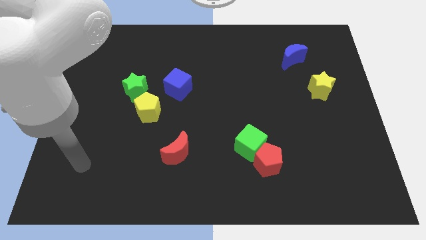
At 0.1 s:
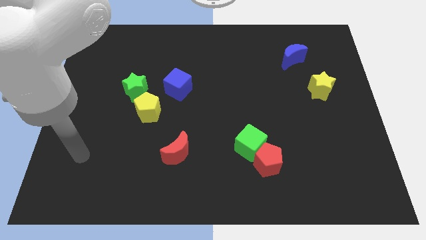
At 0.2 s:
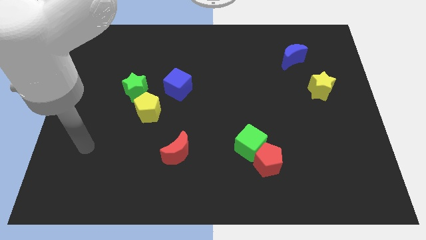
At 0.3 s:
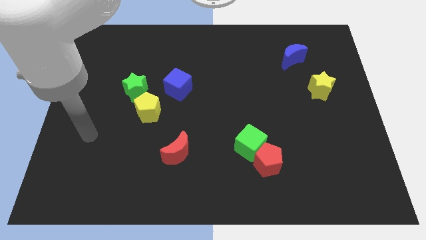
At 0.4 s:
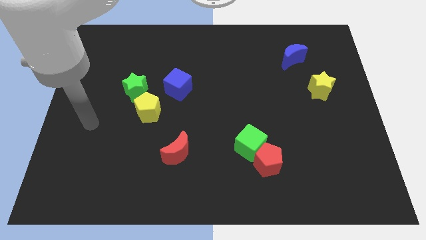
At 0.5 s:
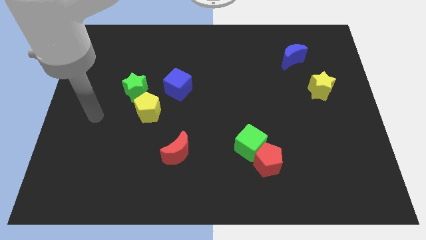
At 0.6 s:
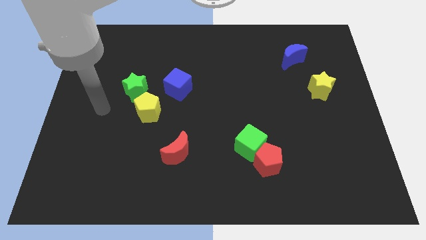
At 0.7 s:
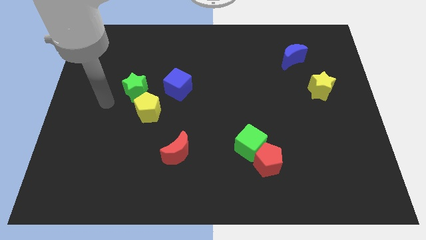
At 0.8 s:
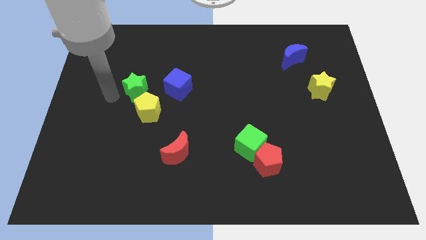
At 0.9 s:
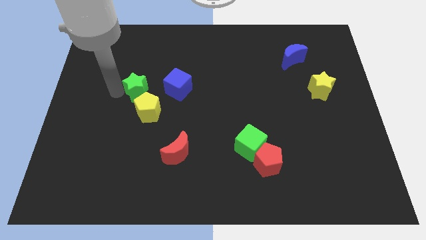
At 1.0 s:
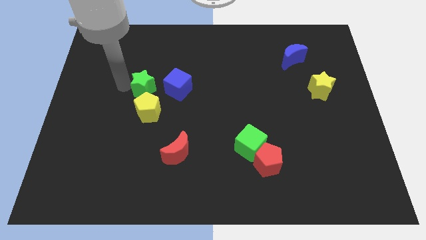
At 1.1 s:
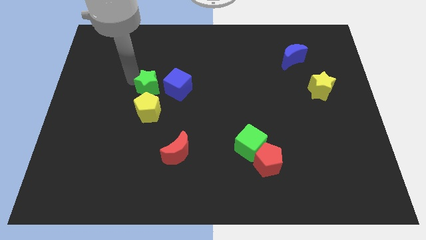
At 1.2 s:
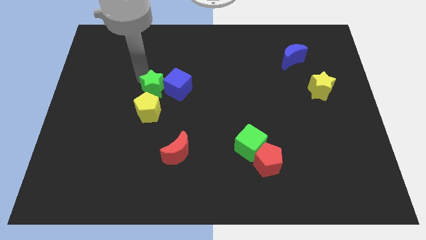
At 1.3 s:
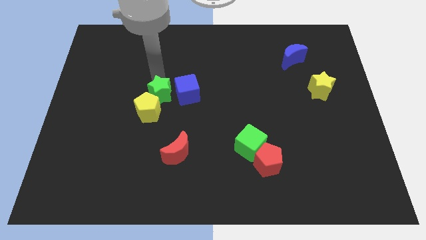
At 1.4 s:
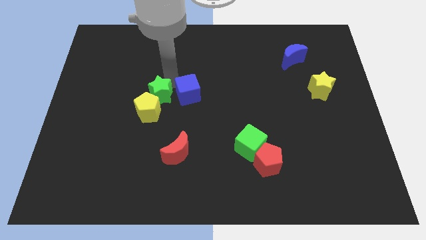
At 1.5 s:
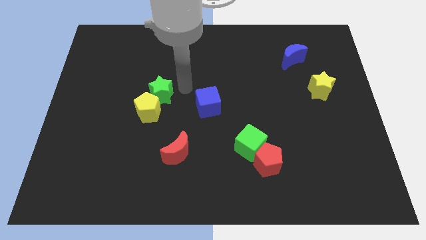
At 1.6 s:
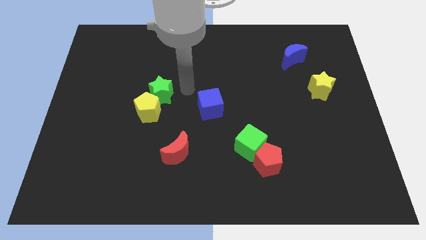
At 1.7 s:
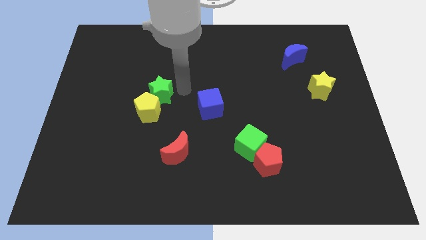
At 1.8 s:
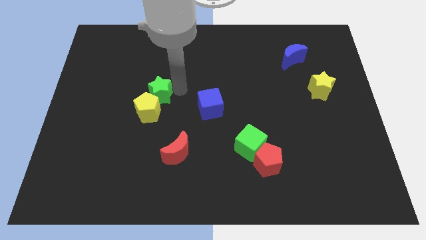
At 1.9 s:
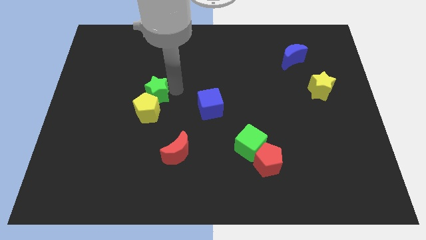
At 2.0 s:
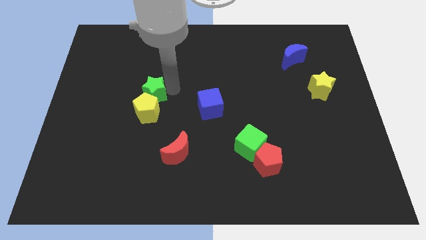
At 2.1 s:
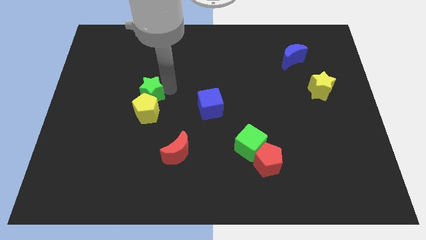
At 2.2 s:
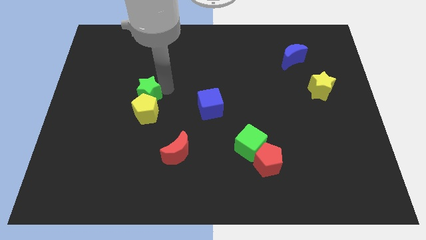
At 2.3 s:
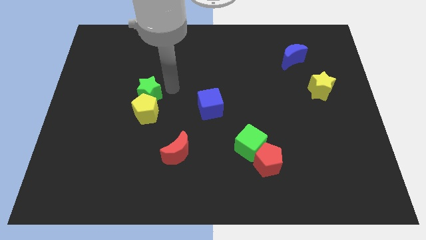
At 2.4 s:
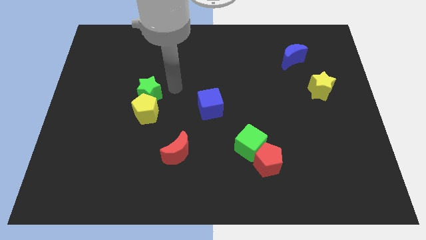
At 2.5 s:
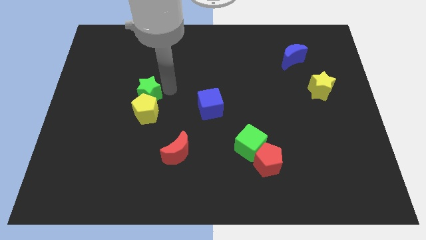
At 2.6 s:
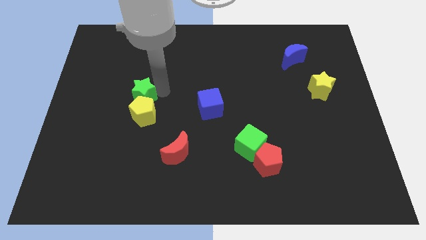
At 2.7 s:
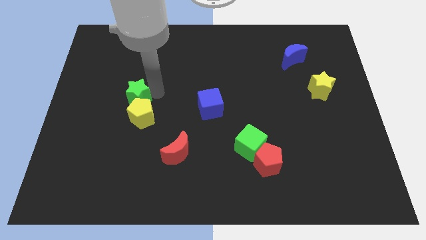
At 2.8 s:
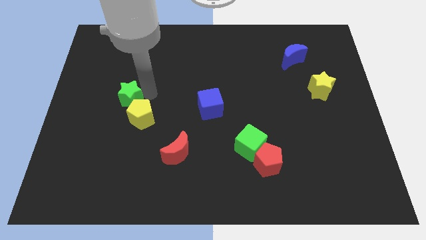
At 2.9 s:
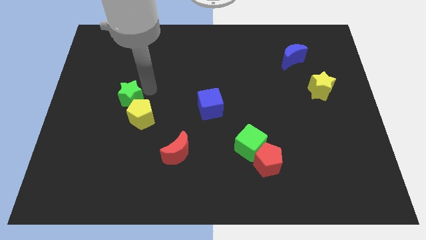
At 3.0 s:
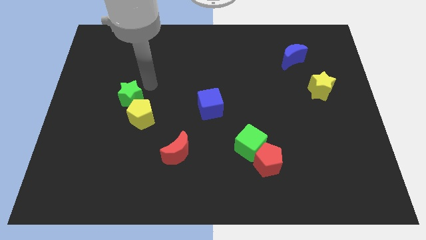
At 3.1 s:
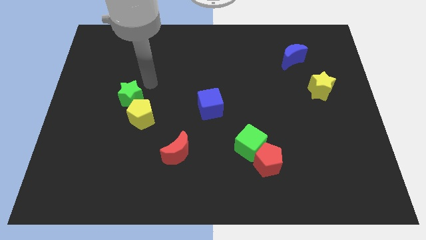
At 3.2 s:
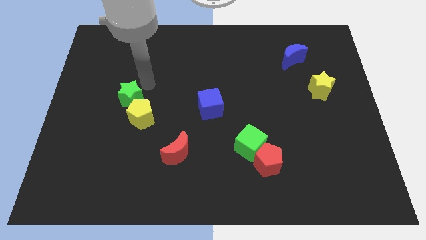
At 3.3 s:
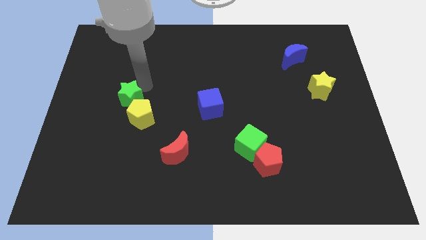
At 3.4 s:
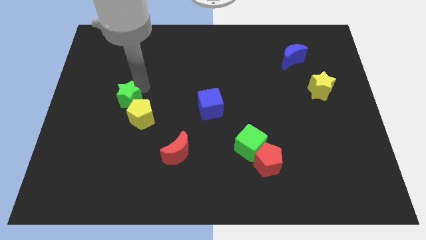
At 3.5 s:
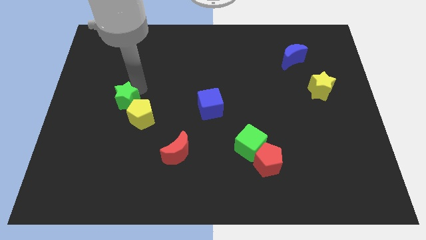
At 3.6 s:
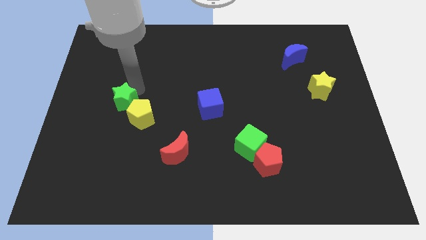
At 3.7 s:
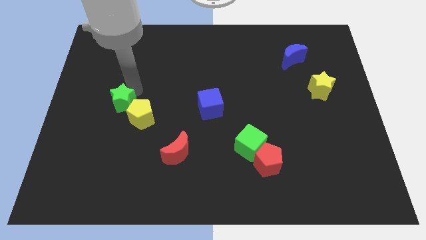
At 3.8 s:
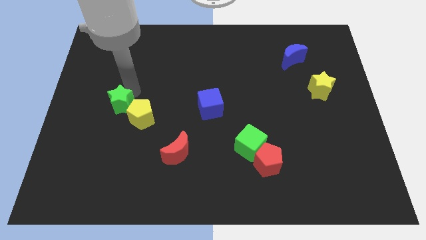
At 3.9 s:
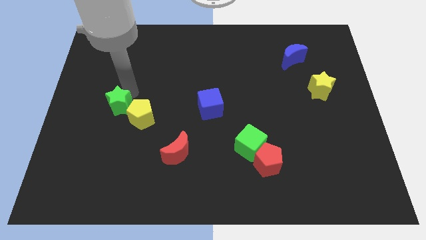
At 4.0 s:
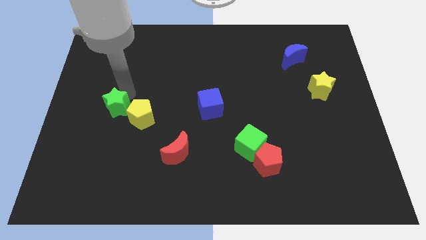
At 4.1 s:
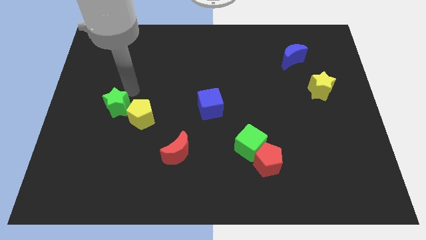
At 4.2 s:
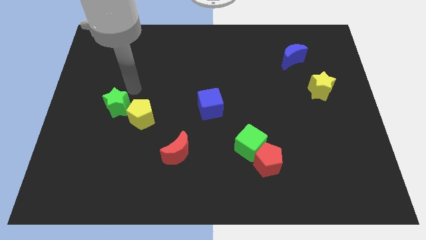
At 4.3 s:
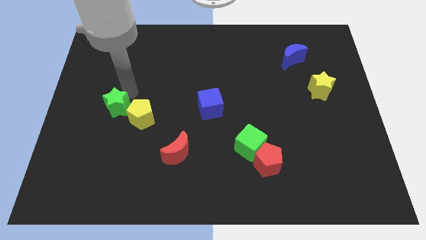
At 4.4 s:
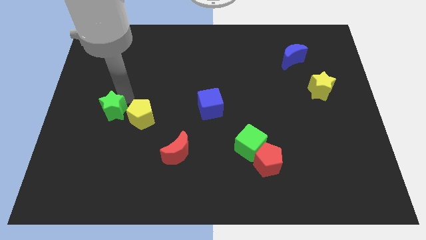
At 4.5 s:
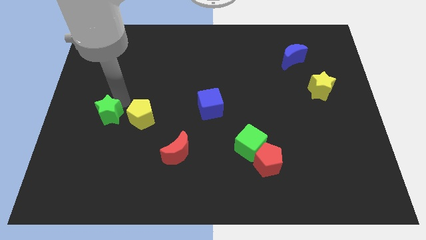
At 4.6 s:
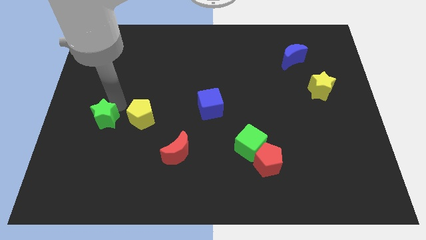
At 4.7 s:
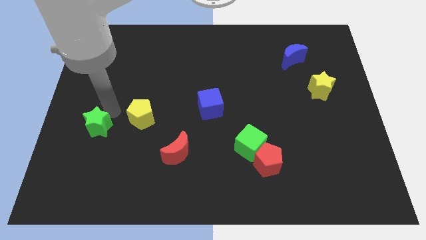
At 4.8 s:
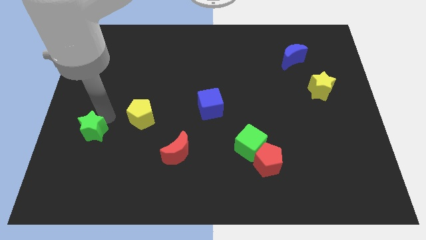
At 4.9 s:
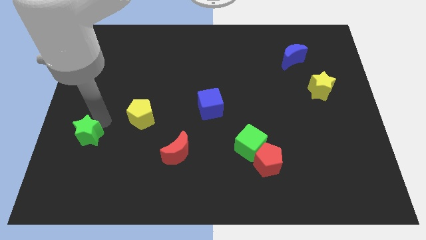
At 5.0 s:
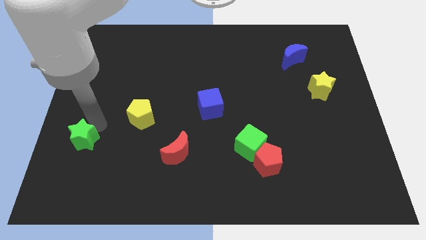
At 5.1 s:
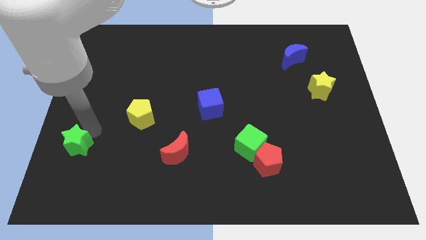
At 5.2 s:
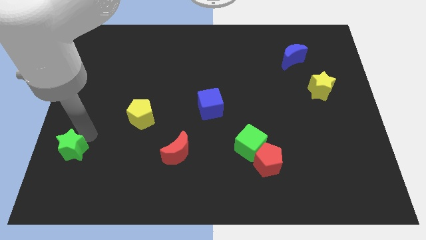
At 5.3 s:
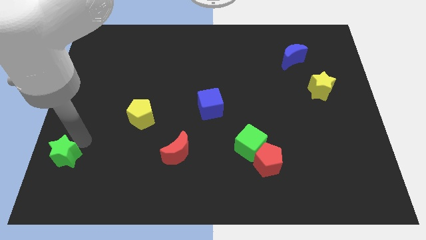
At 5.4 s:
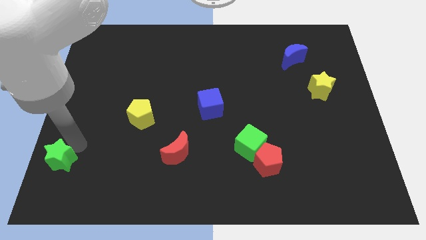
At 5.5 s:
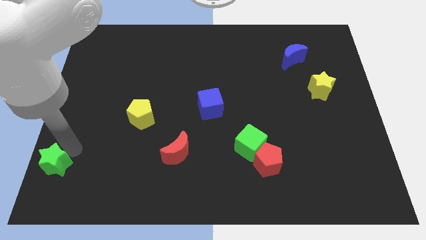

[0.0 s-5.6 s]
slide the green star to the bottom left corner

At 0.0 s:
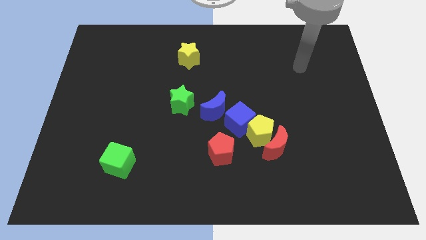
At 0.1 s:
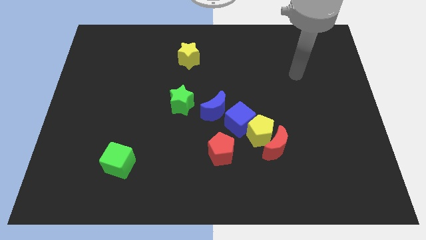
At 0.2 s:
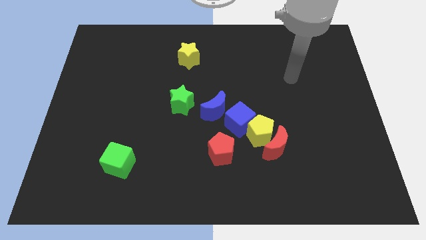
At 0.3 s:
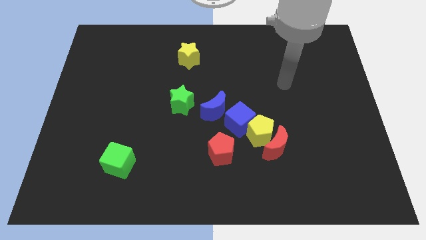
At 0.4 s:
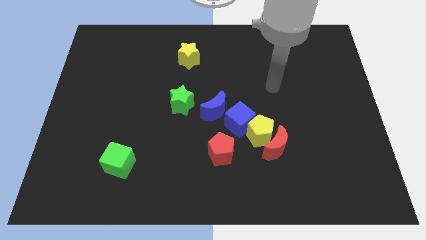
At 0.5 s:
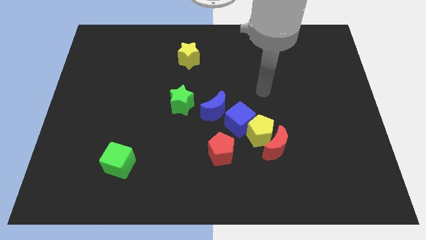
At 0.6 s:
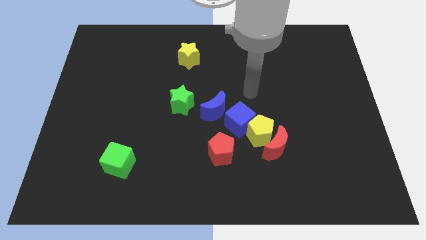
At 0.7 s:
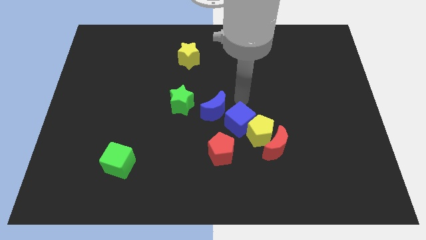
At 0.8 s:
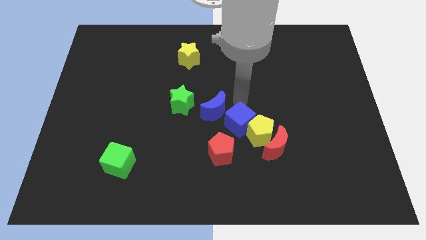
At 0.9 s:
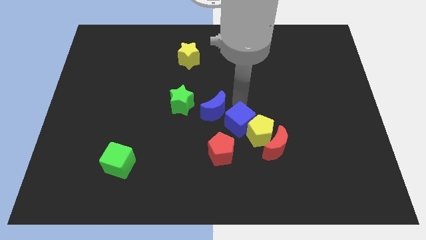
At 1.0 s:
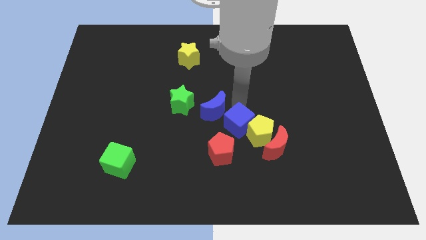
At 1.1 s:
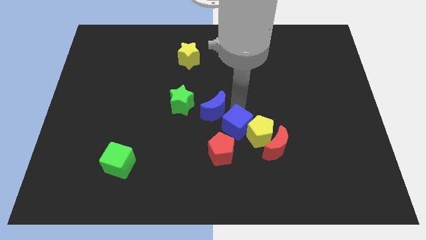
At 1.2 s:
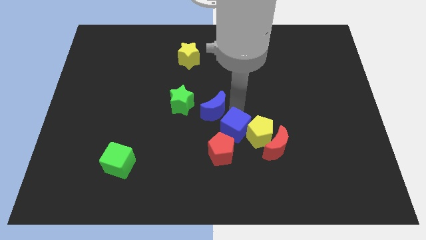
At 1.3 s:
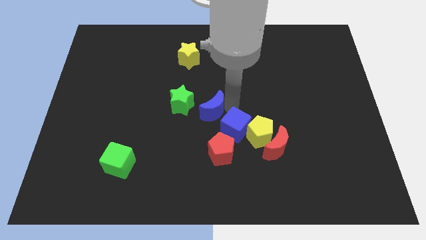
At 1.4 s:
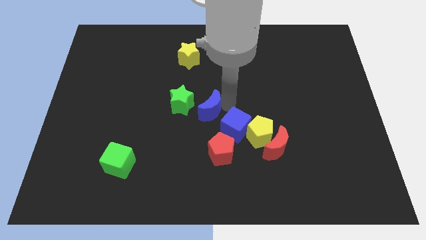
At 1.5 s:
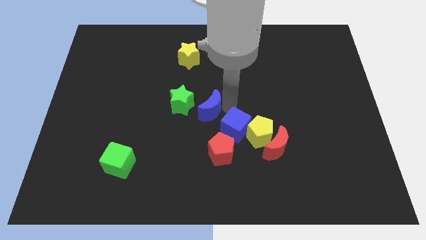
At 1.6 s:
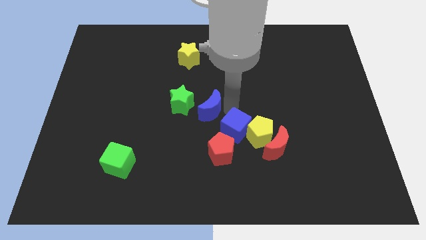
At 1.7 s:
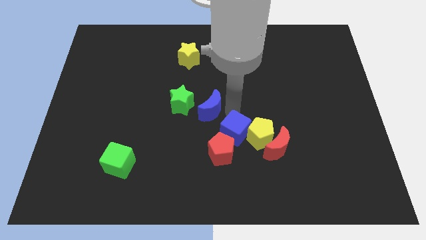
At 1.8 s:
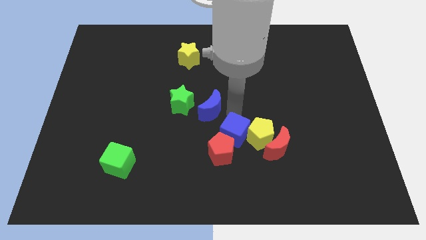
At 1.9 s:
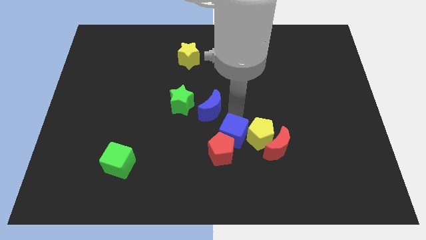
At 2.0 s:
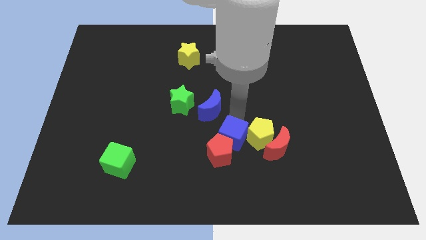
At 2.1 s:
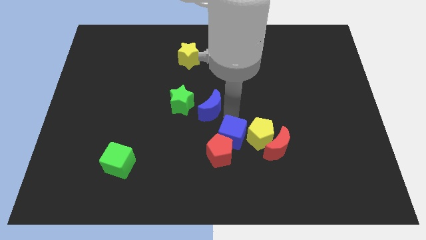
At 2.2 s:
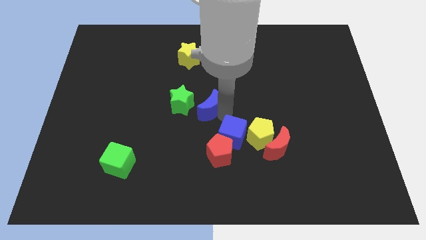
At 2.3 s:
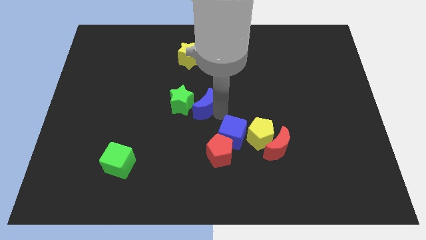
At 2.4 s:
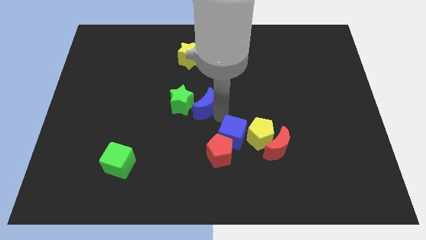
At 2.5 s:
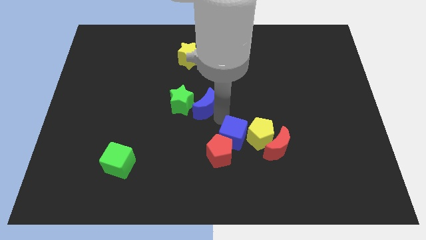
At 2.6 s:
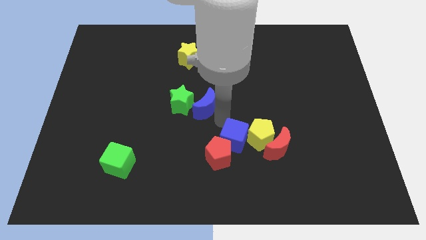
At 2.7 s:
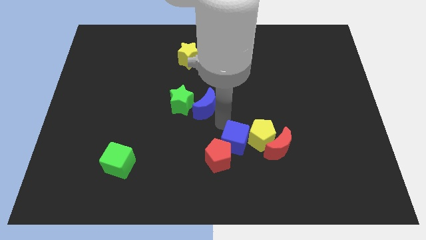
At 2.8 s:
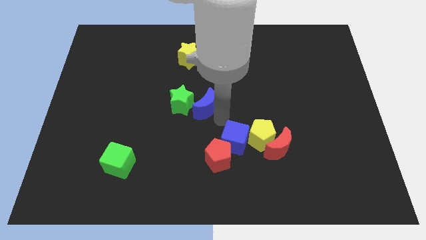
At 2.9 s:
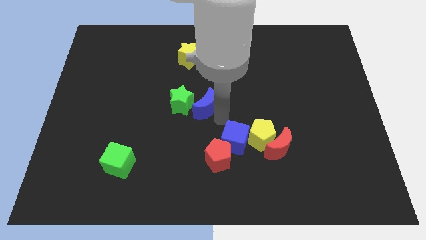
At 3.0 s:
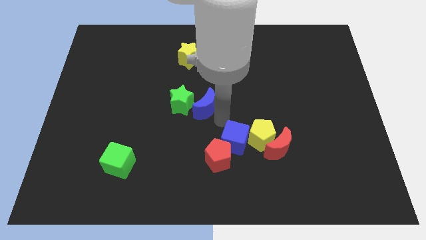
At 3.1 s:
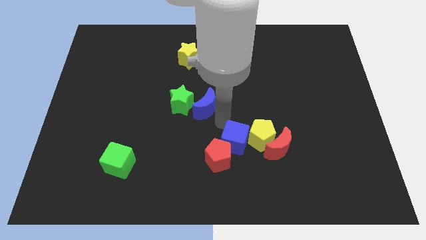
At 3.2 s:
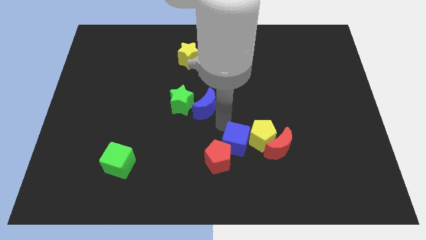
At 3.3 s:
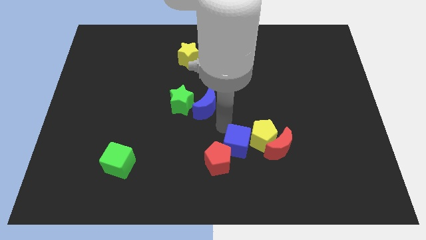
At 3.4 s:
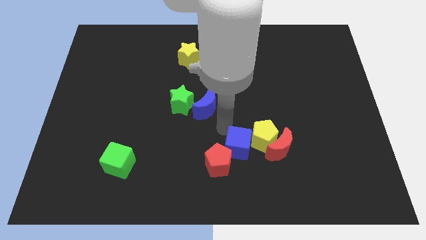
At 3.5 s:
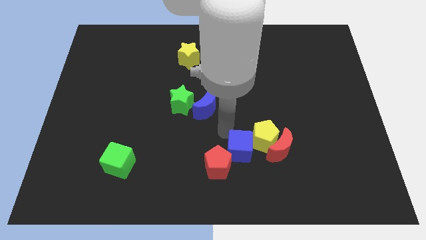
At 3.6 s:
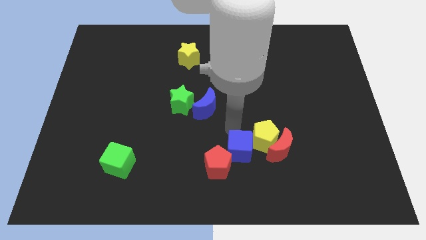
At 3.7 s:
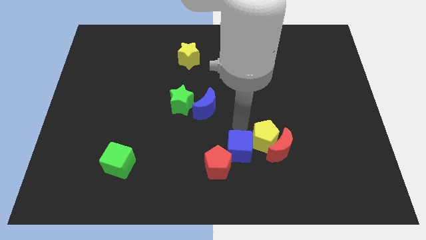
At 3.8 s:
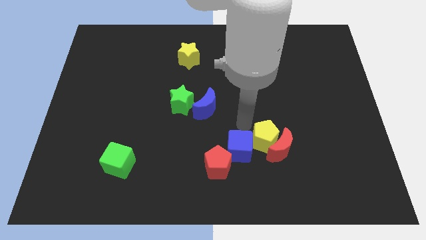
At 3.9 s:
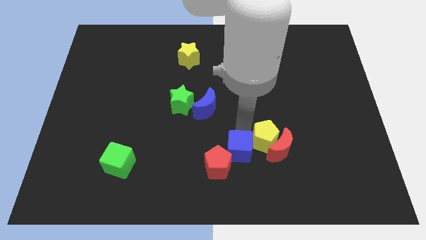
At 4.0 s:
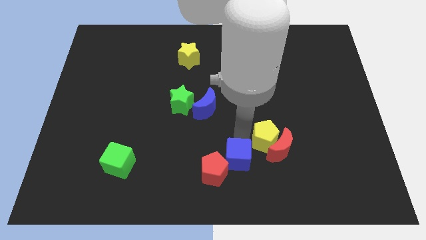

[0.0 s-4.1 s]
slide the blue cube to the bottom
